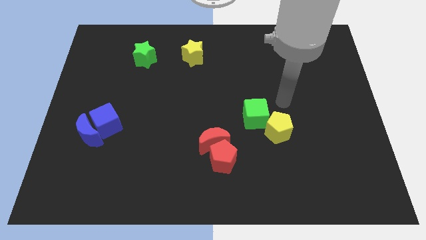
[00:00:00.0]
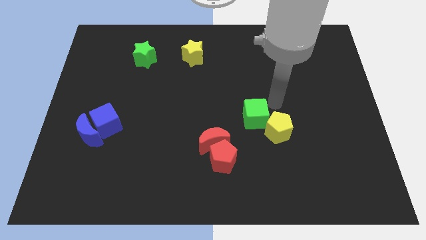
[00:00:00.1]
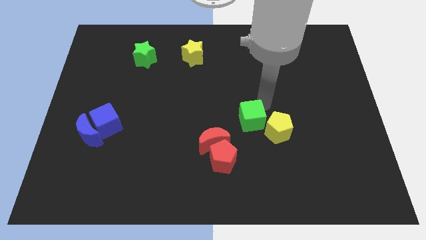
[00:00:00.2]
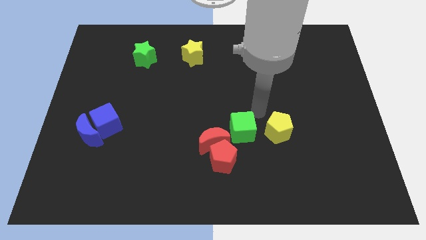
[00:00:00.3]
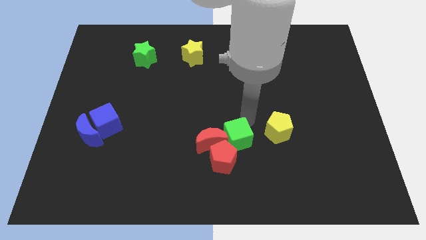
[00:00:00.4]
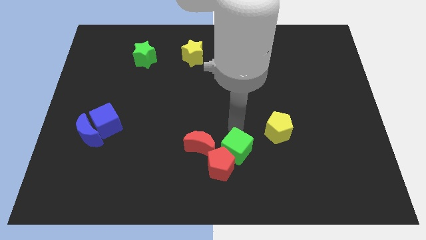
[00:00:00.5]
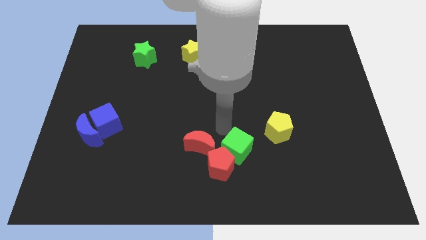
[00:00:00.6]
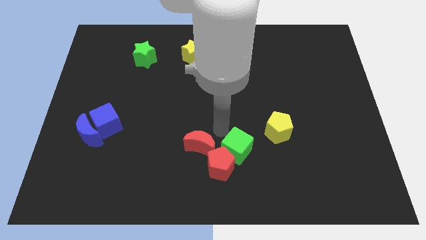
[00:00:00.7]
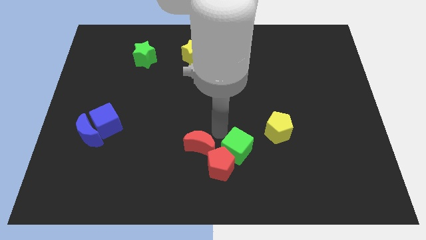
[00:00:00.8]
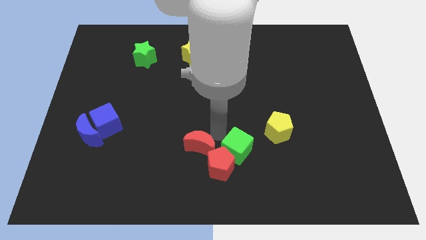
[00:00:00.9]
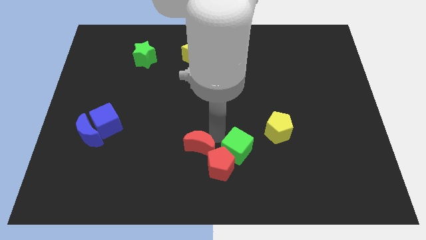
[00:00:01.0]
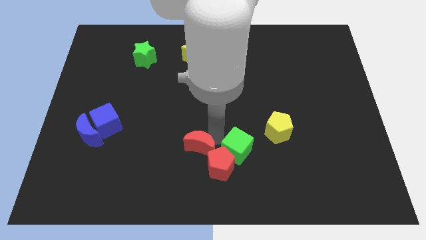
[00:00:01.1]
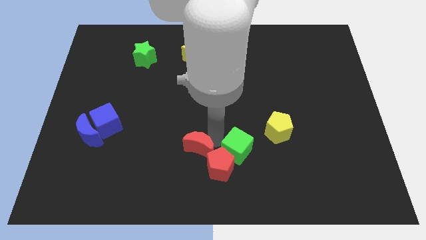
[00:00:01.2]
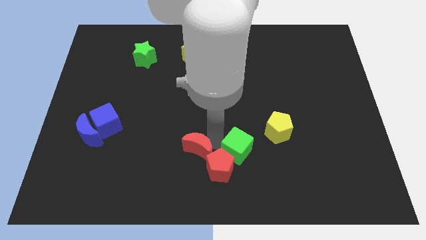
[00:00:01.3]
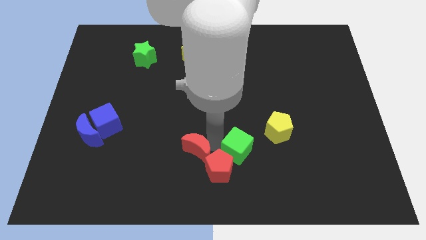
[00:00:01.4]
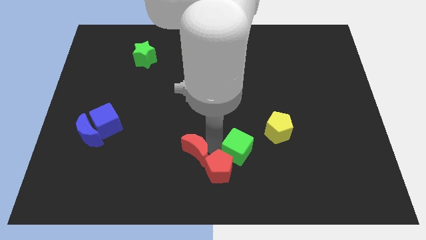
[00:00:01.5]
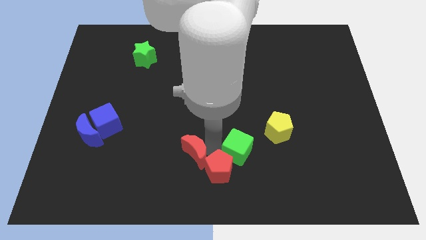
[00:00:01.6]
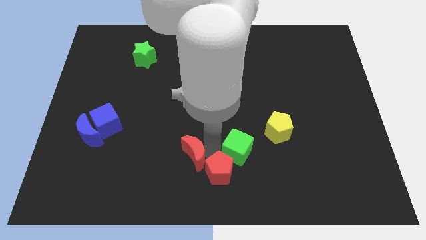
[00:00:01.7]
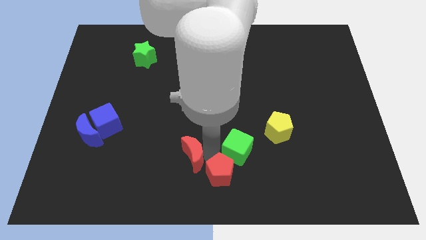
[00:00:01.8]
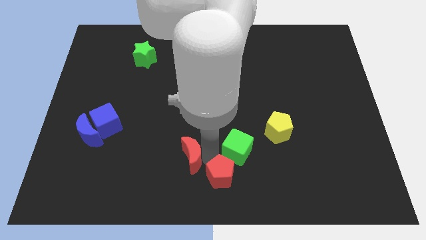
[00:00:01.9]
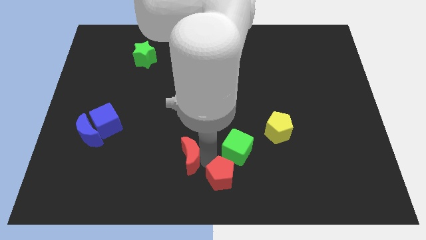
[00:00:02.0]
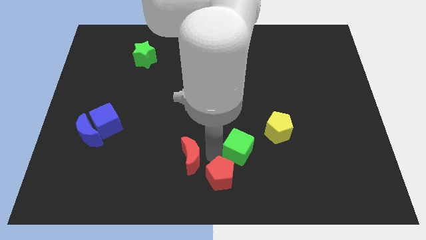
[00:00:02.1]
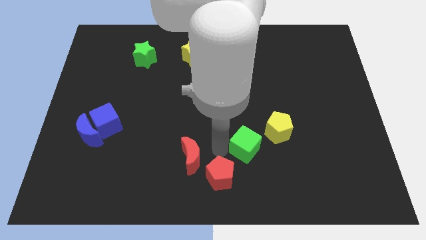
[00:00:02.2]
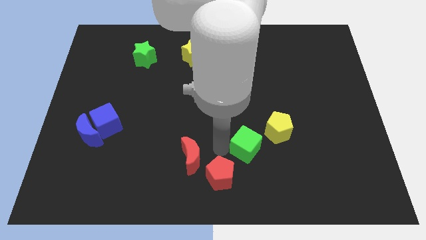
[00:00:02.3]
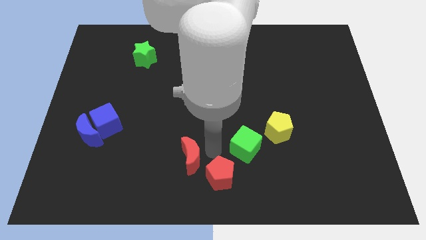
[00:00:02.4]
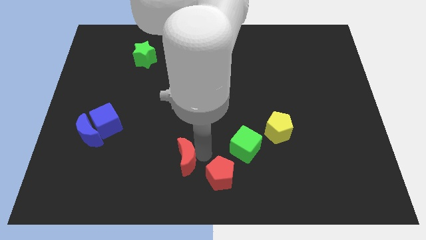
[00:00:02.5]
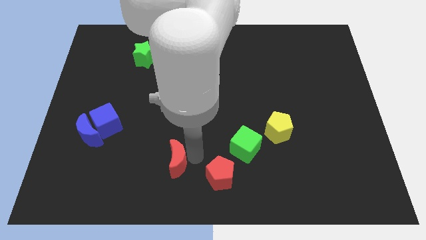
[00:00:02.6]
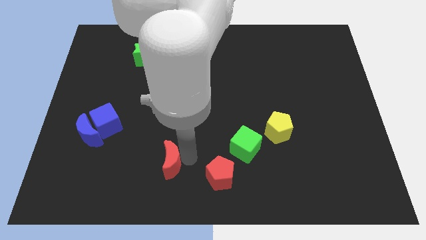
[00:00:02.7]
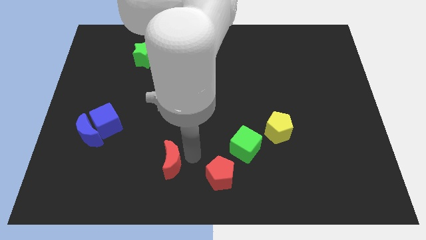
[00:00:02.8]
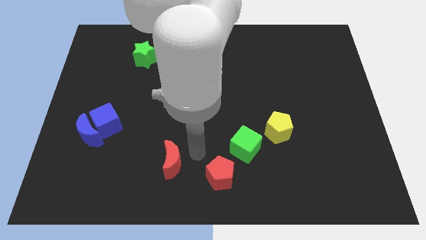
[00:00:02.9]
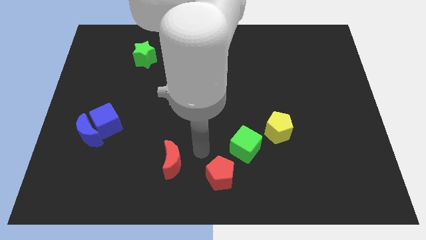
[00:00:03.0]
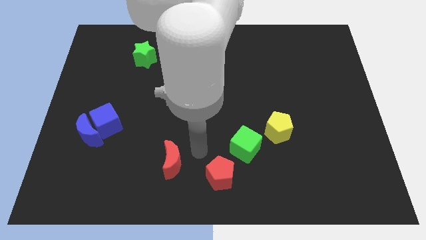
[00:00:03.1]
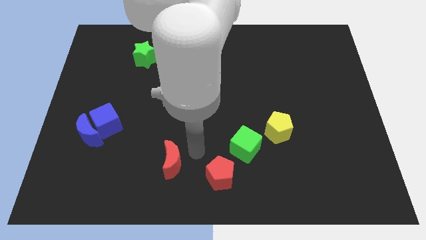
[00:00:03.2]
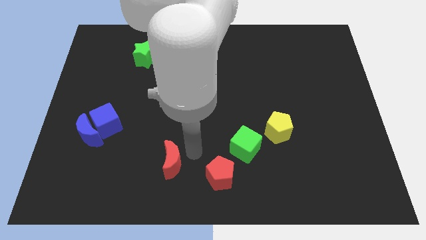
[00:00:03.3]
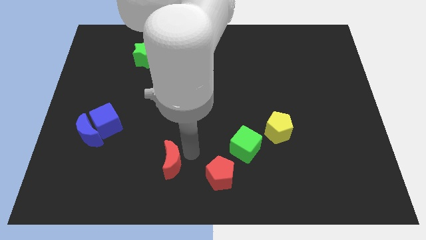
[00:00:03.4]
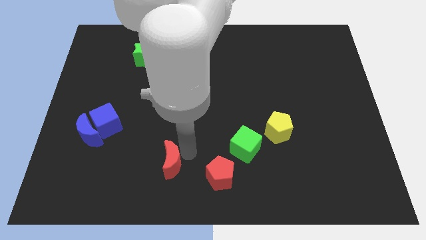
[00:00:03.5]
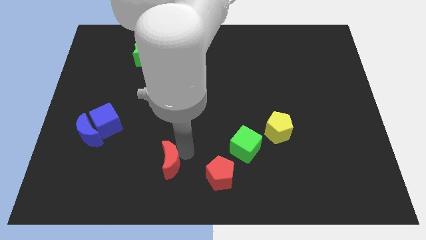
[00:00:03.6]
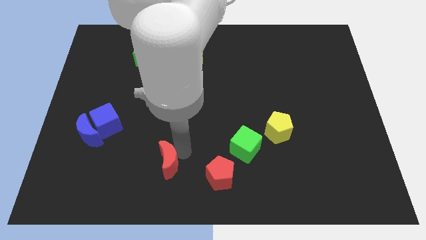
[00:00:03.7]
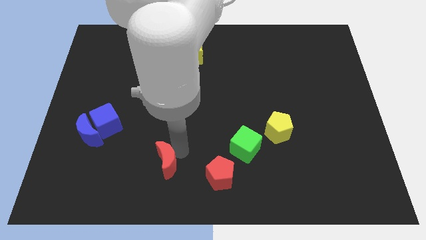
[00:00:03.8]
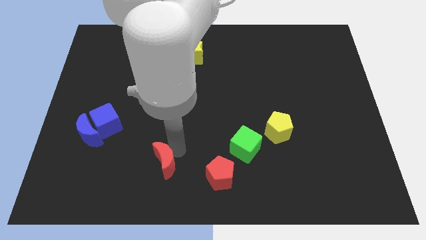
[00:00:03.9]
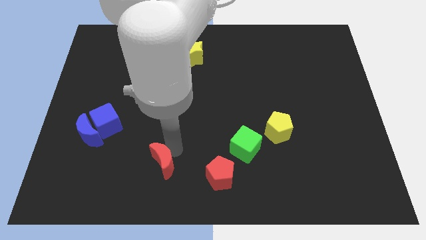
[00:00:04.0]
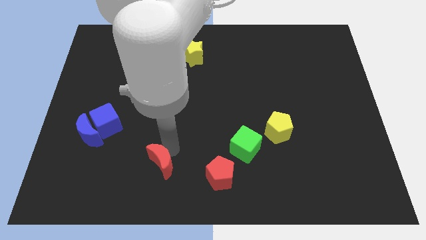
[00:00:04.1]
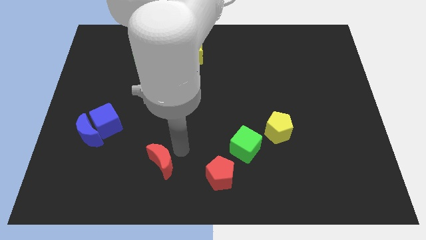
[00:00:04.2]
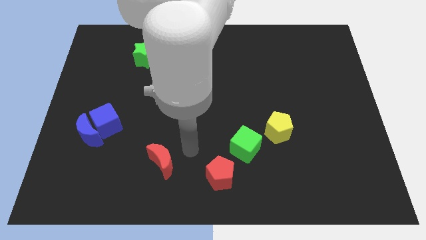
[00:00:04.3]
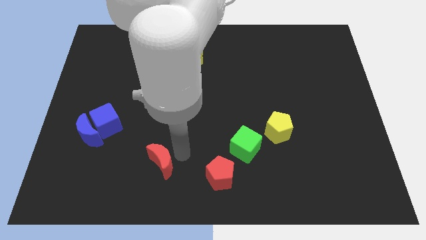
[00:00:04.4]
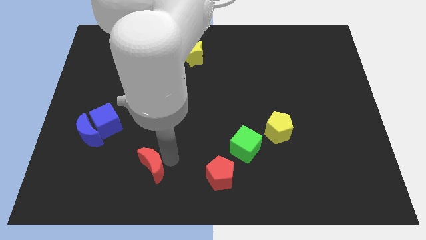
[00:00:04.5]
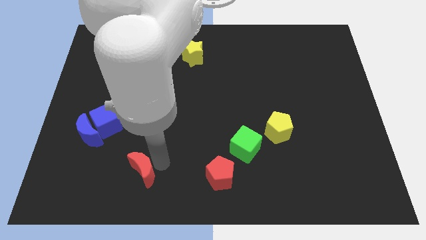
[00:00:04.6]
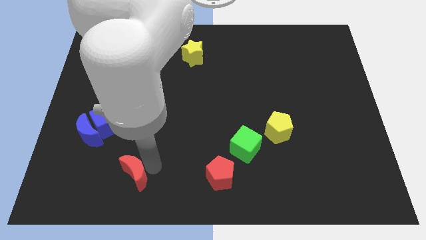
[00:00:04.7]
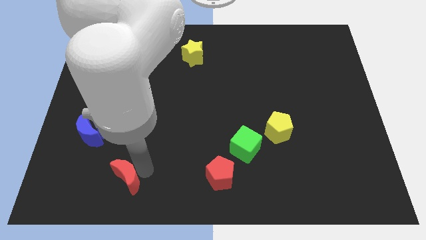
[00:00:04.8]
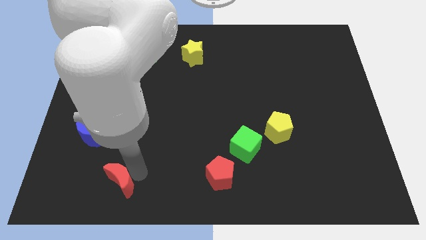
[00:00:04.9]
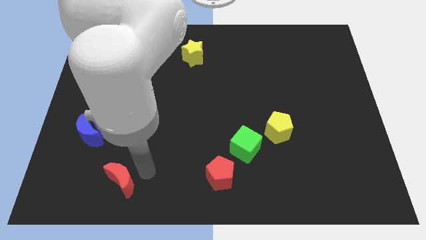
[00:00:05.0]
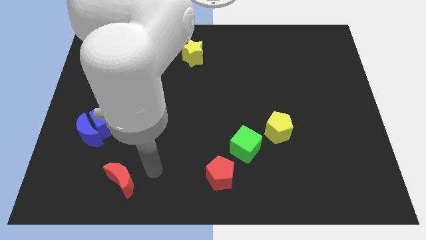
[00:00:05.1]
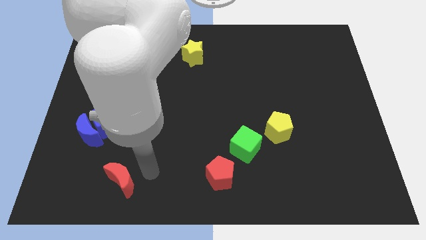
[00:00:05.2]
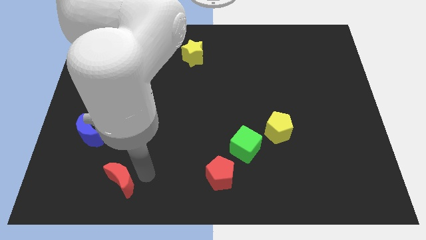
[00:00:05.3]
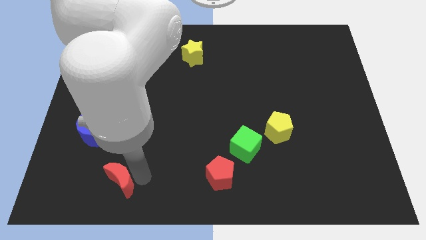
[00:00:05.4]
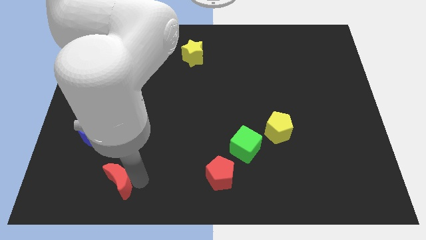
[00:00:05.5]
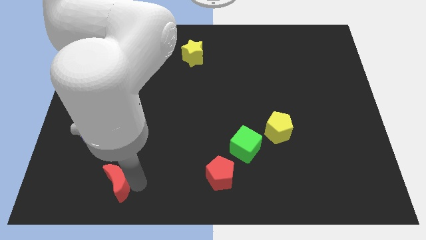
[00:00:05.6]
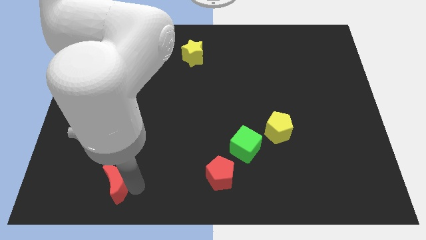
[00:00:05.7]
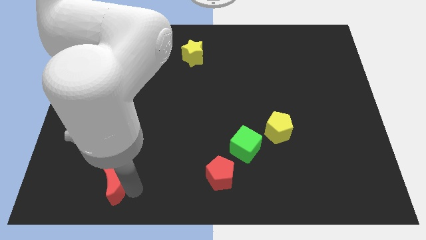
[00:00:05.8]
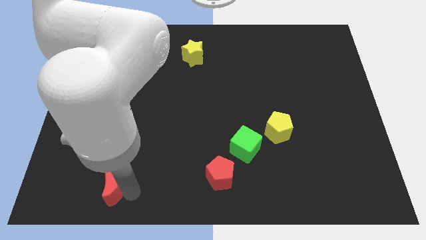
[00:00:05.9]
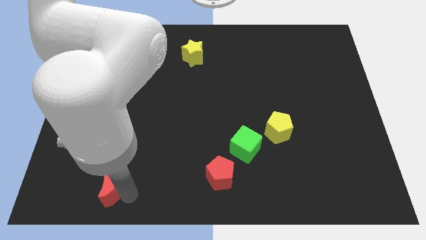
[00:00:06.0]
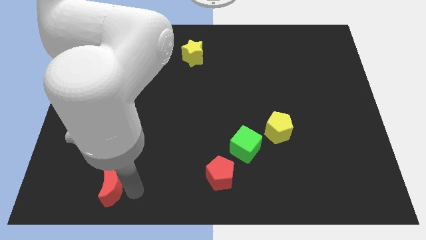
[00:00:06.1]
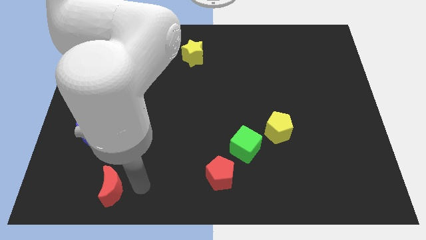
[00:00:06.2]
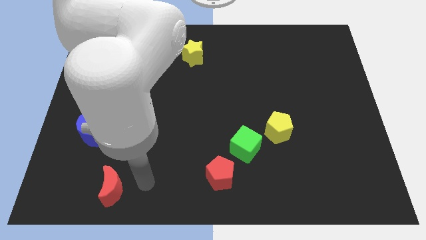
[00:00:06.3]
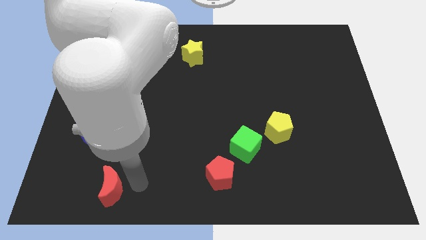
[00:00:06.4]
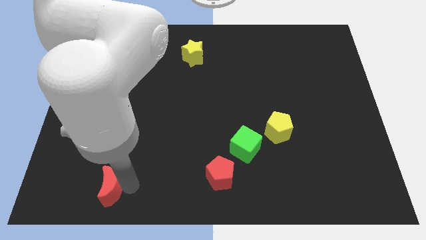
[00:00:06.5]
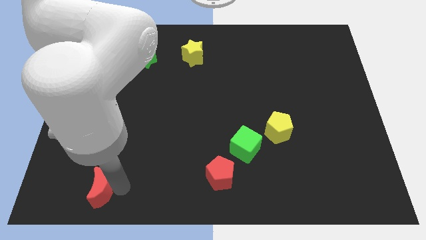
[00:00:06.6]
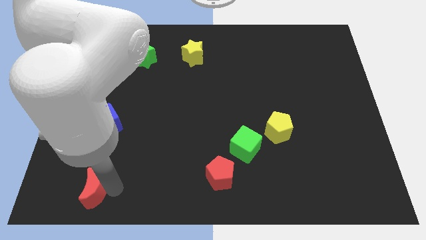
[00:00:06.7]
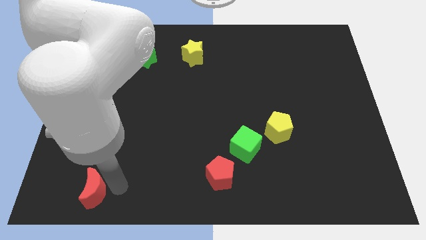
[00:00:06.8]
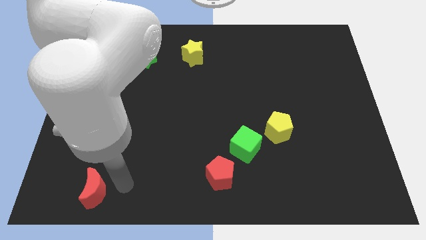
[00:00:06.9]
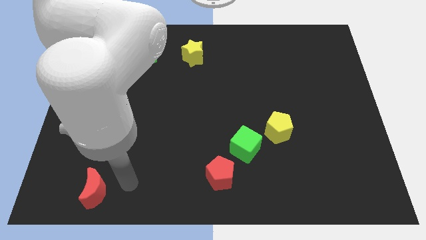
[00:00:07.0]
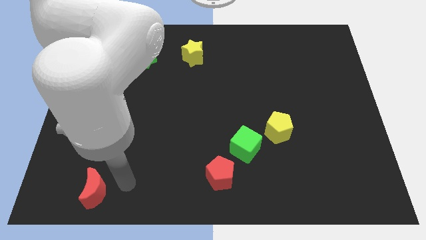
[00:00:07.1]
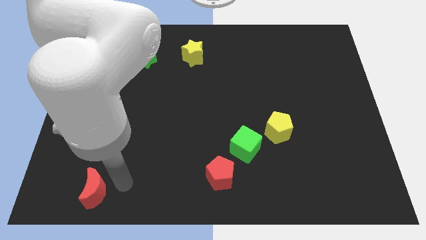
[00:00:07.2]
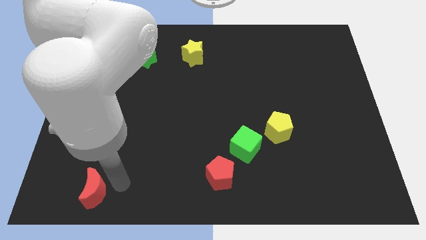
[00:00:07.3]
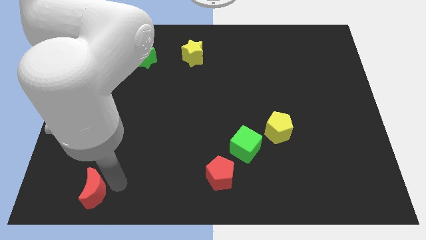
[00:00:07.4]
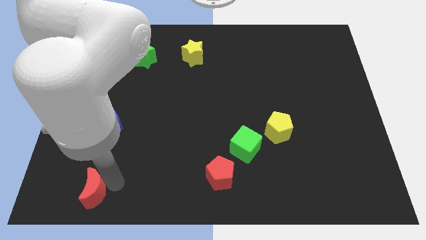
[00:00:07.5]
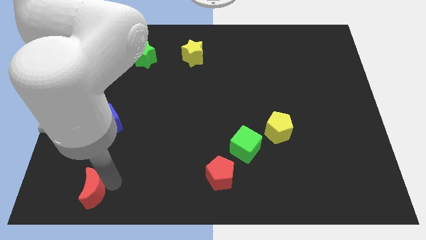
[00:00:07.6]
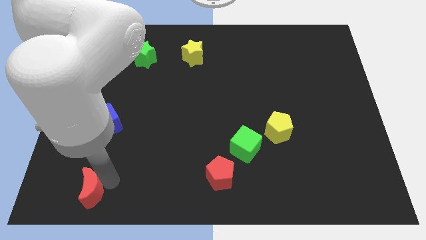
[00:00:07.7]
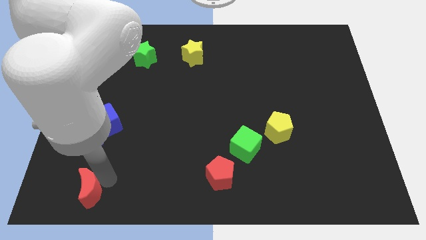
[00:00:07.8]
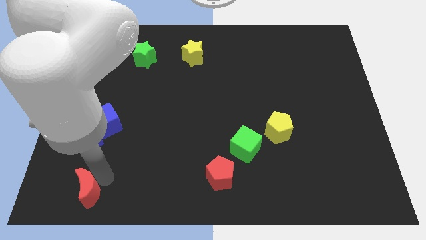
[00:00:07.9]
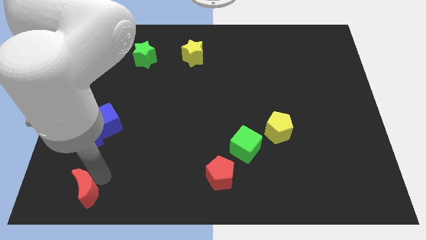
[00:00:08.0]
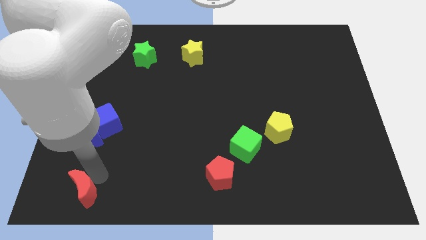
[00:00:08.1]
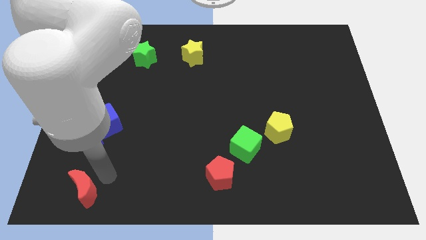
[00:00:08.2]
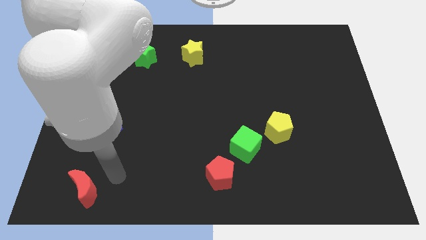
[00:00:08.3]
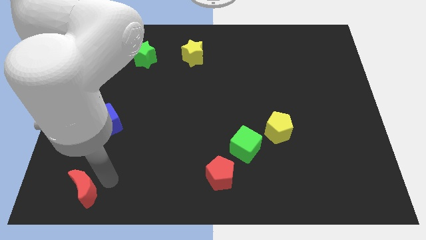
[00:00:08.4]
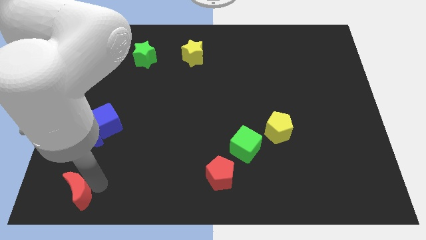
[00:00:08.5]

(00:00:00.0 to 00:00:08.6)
push the red moon to the bottom left
